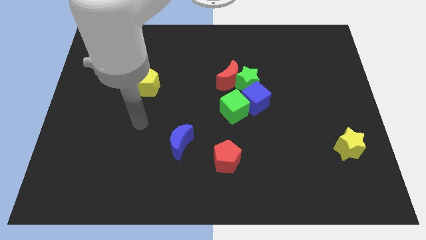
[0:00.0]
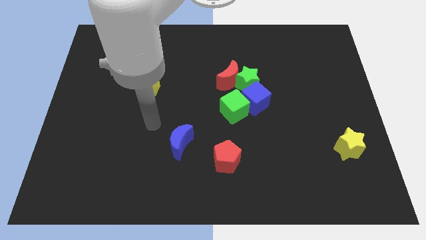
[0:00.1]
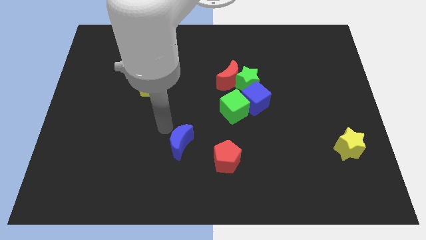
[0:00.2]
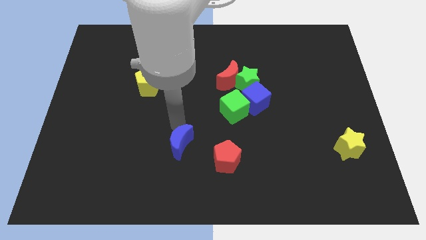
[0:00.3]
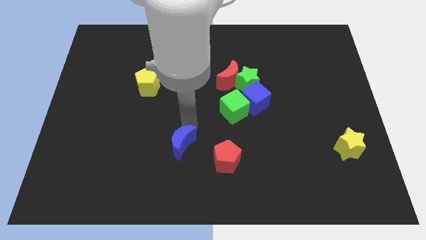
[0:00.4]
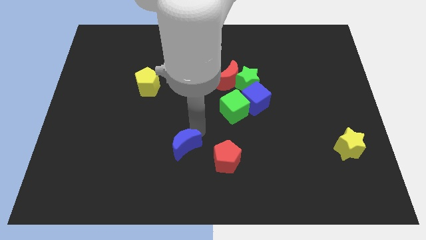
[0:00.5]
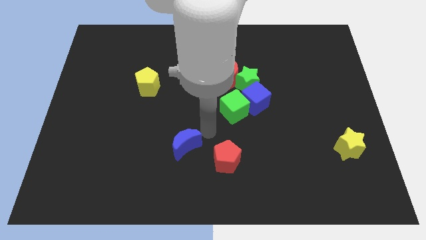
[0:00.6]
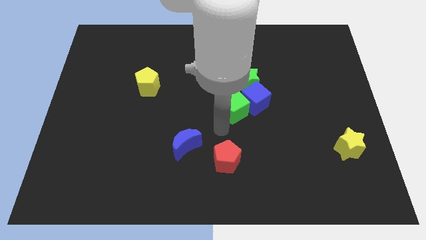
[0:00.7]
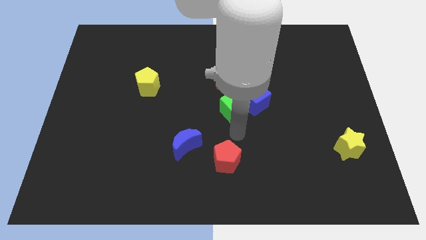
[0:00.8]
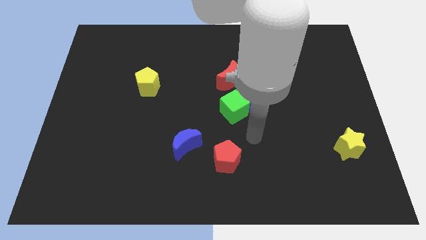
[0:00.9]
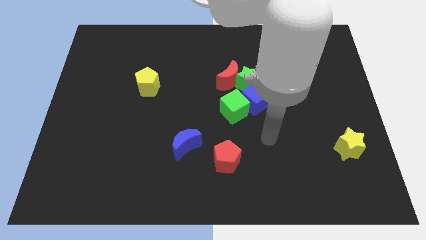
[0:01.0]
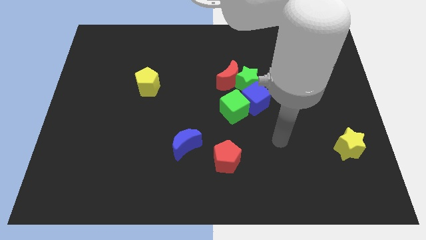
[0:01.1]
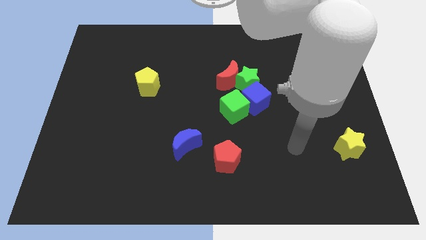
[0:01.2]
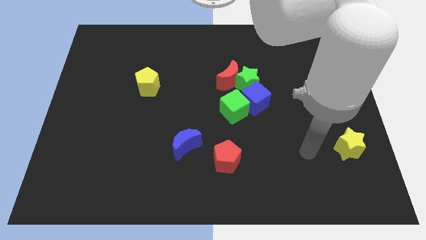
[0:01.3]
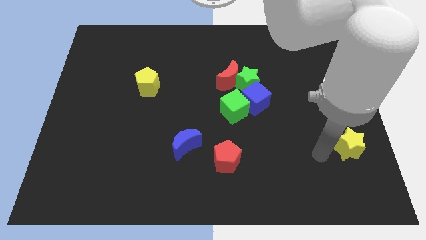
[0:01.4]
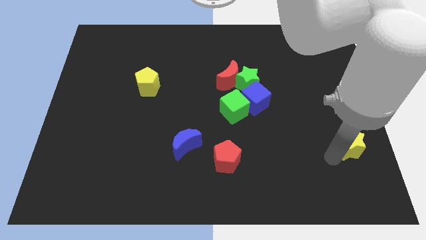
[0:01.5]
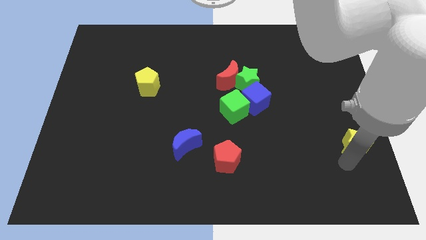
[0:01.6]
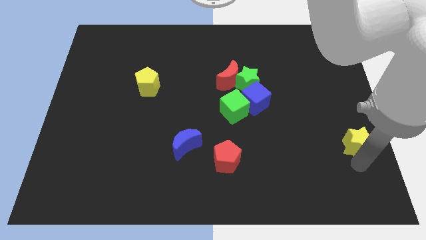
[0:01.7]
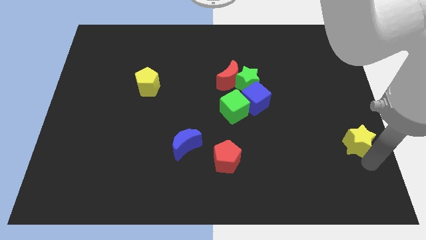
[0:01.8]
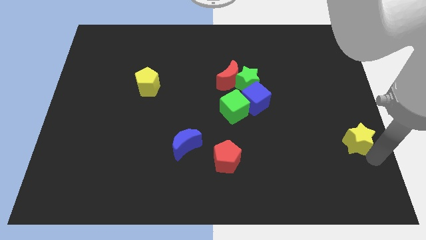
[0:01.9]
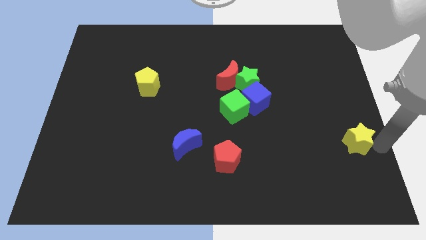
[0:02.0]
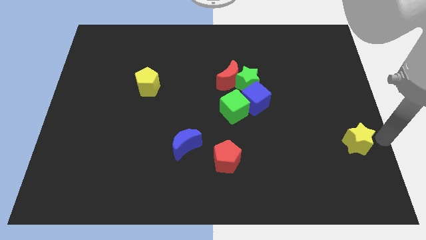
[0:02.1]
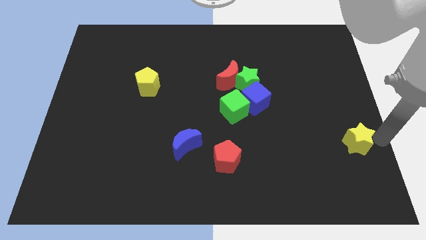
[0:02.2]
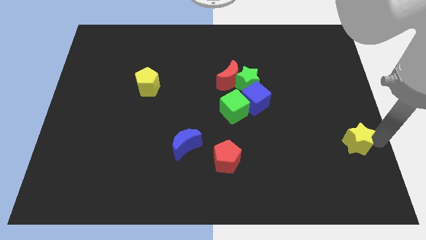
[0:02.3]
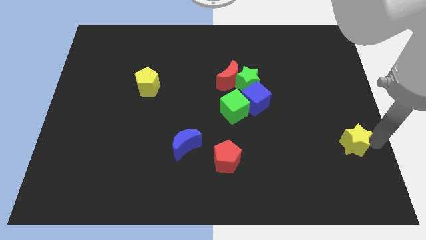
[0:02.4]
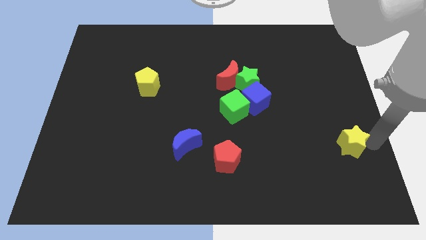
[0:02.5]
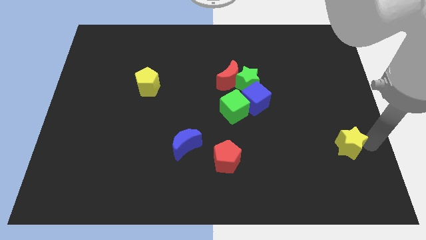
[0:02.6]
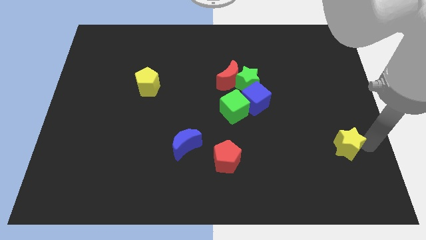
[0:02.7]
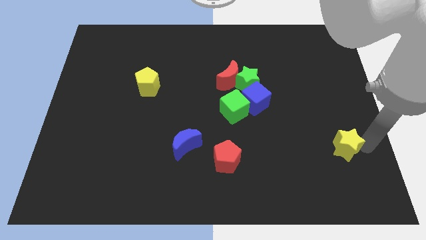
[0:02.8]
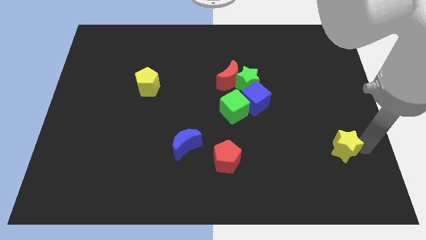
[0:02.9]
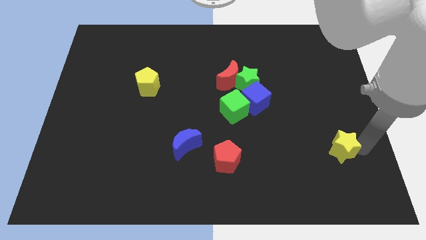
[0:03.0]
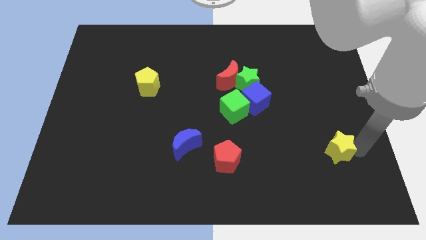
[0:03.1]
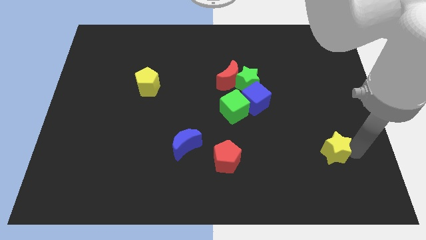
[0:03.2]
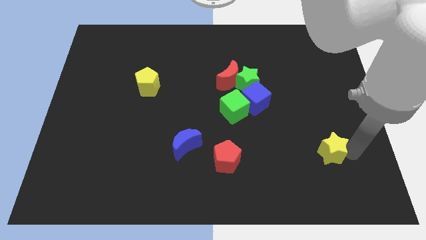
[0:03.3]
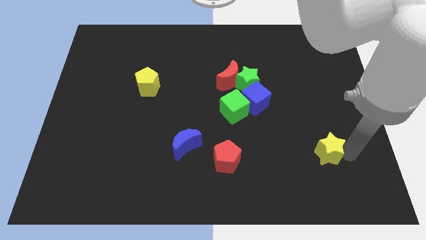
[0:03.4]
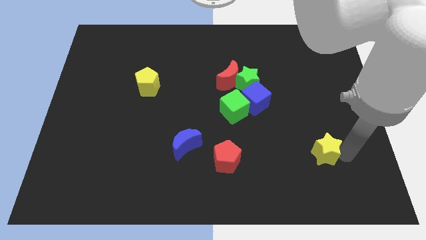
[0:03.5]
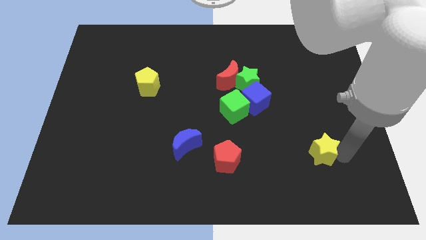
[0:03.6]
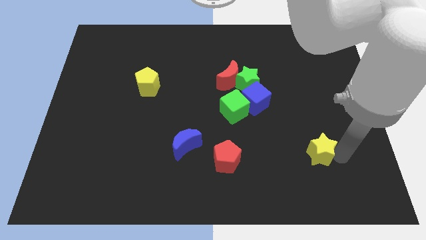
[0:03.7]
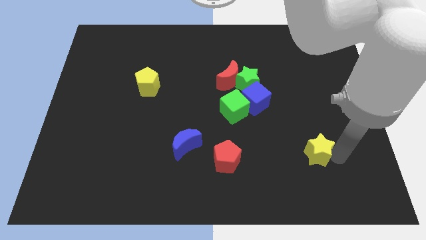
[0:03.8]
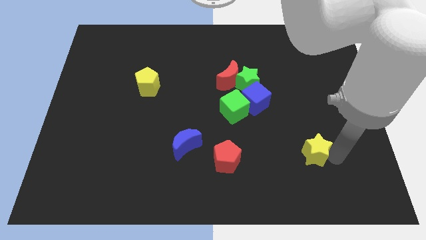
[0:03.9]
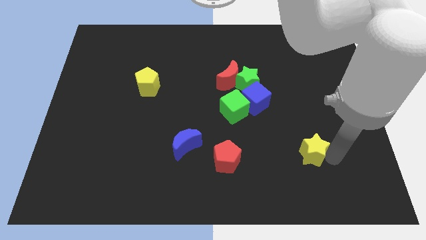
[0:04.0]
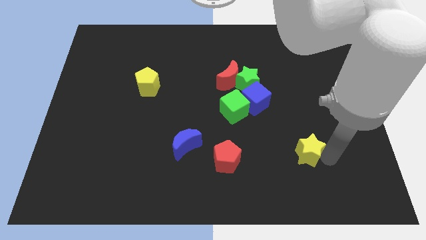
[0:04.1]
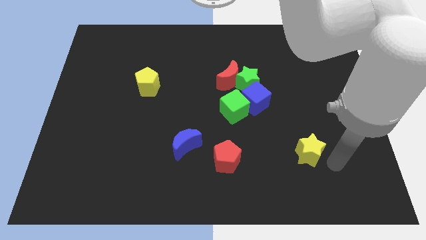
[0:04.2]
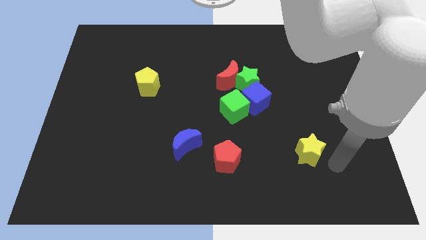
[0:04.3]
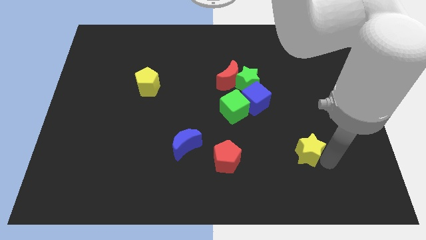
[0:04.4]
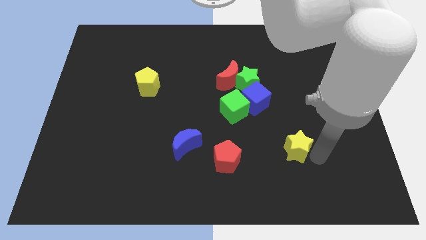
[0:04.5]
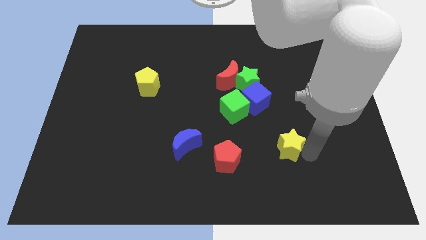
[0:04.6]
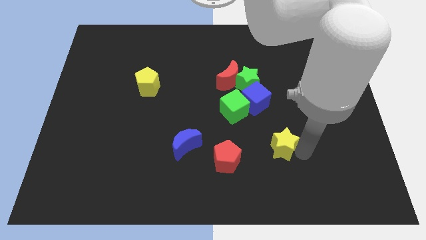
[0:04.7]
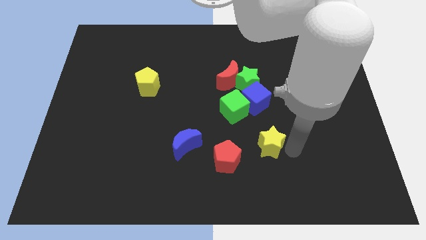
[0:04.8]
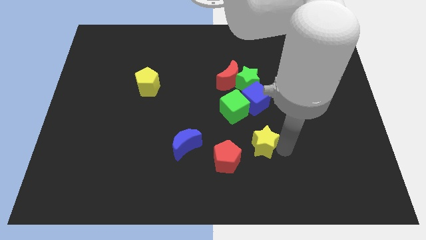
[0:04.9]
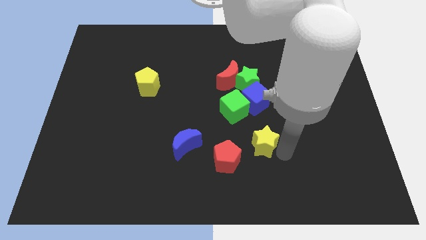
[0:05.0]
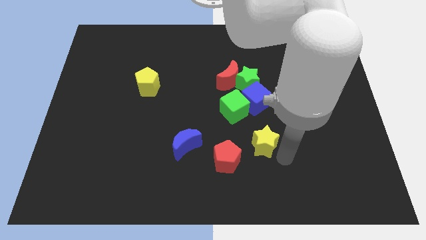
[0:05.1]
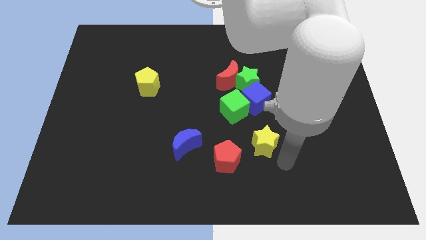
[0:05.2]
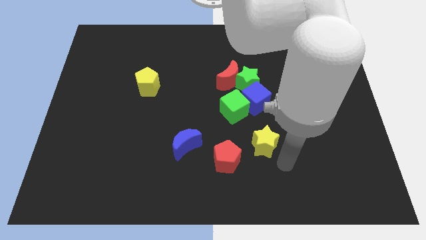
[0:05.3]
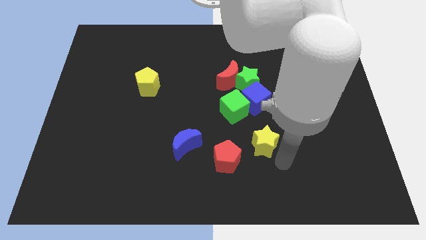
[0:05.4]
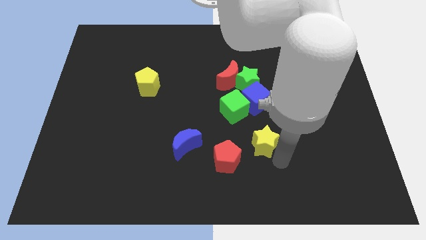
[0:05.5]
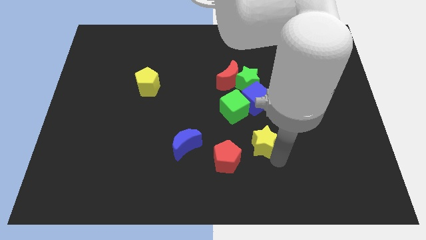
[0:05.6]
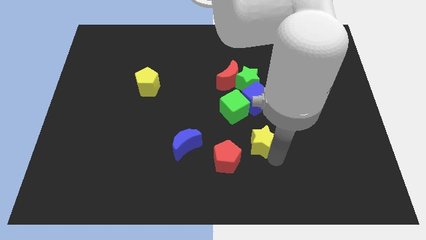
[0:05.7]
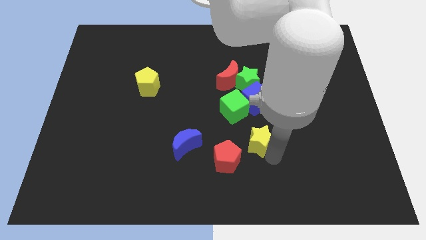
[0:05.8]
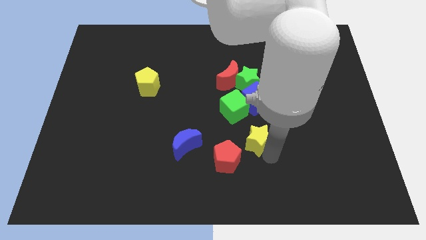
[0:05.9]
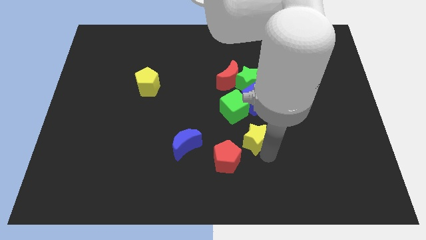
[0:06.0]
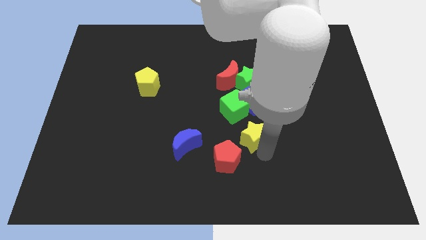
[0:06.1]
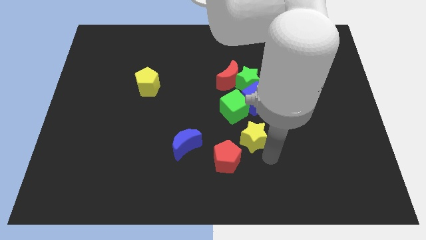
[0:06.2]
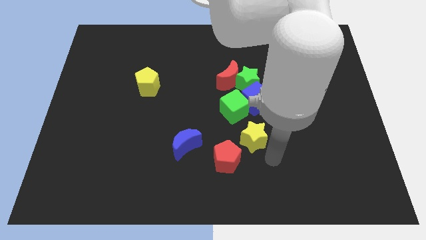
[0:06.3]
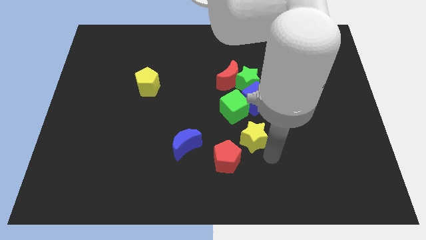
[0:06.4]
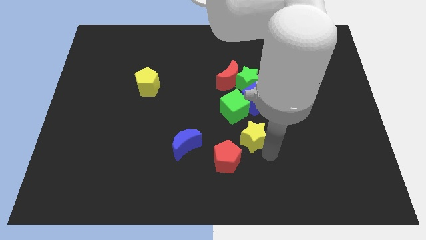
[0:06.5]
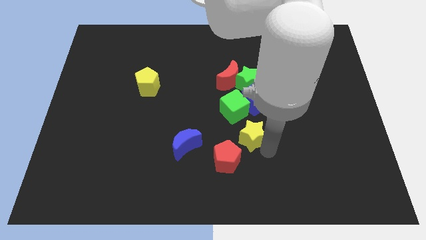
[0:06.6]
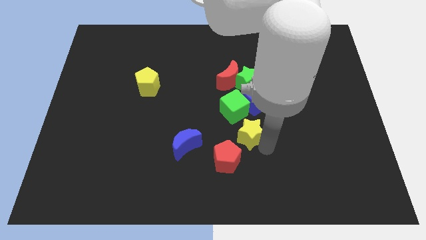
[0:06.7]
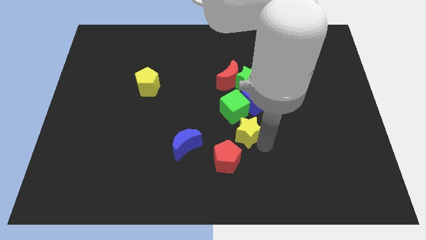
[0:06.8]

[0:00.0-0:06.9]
move the yellow star diagonally down and to the left of the blue cube
